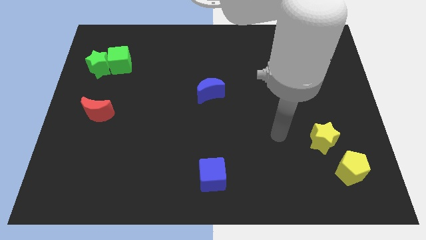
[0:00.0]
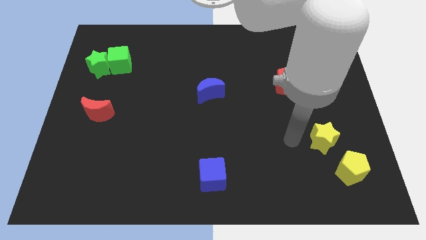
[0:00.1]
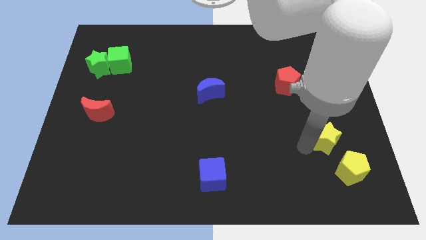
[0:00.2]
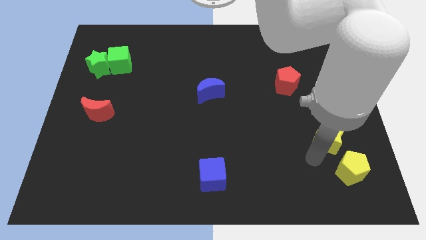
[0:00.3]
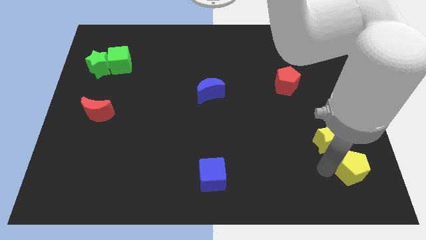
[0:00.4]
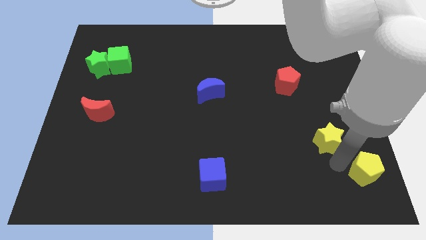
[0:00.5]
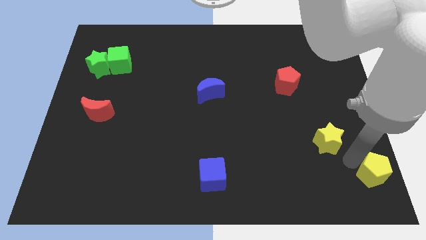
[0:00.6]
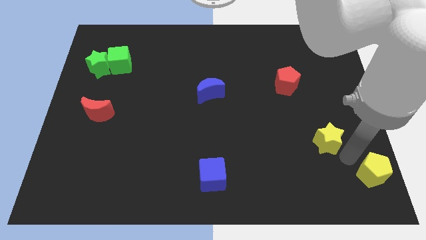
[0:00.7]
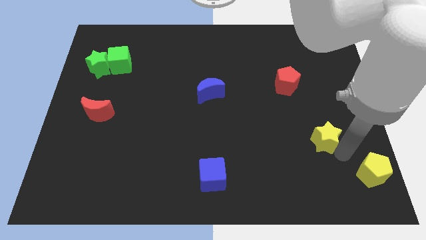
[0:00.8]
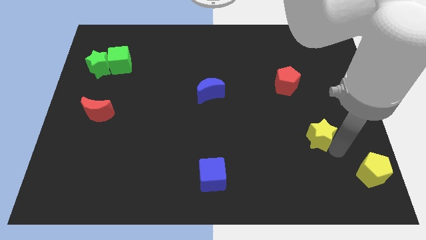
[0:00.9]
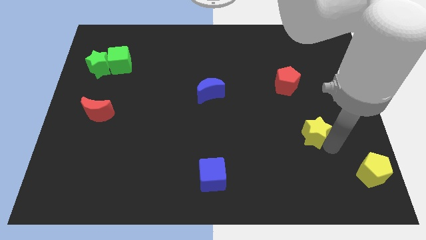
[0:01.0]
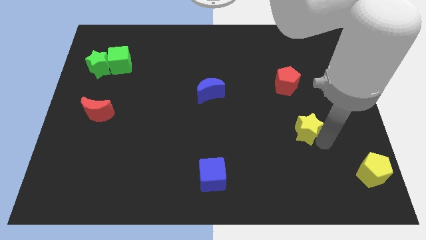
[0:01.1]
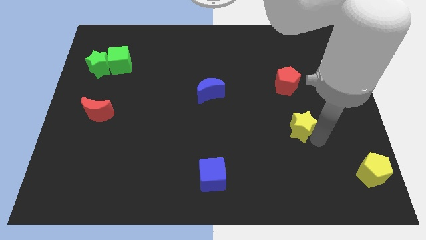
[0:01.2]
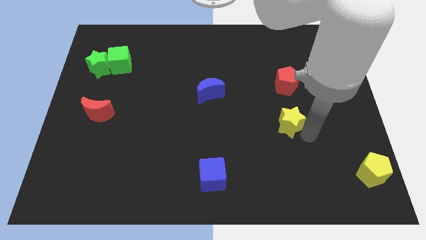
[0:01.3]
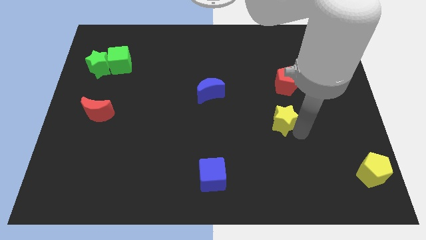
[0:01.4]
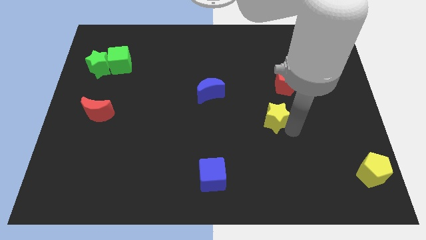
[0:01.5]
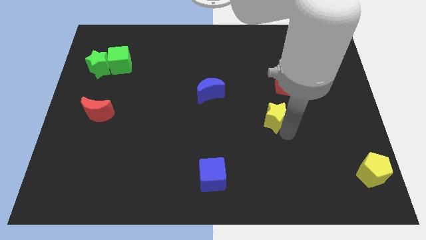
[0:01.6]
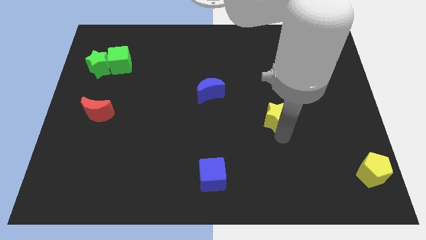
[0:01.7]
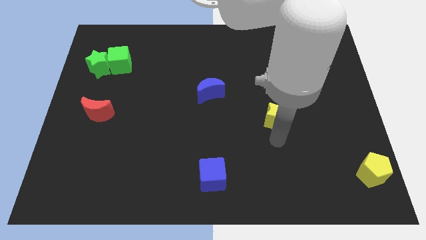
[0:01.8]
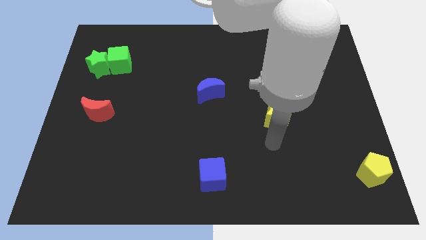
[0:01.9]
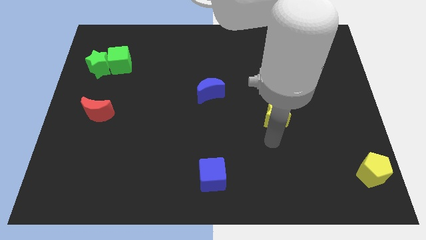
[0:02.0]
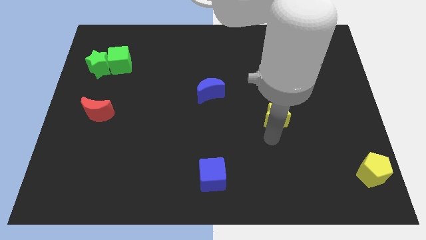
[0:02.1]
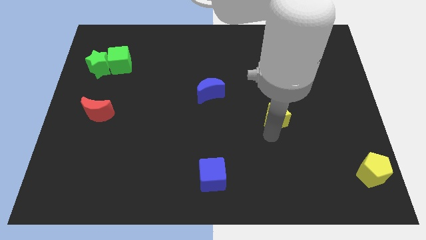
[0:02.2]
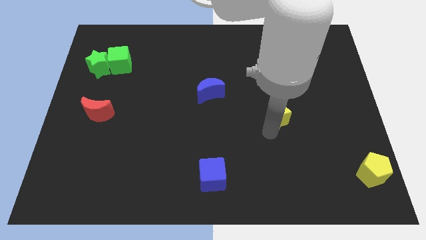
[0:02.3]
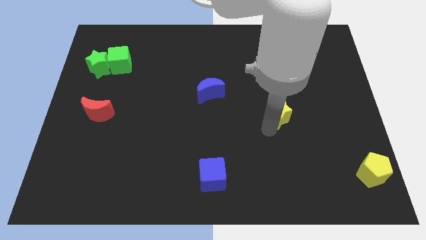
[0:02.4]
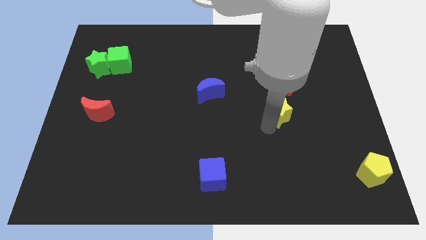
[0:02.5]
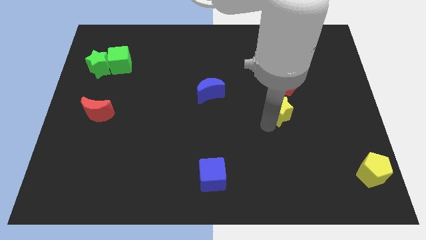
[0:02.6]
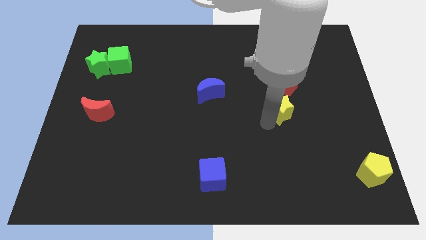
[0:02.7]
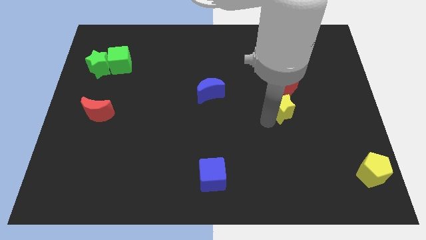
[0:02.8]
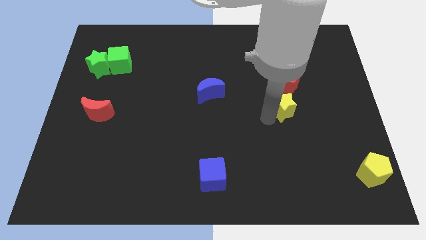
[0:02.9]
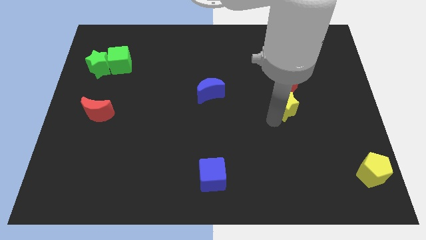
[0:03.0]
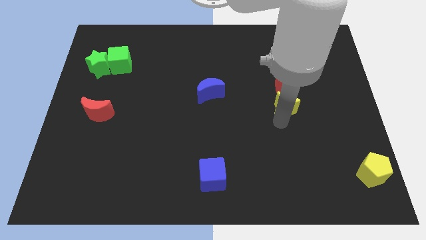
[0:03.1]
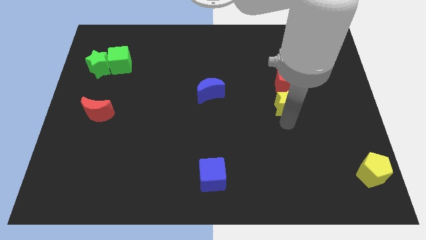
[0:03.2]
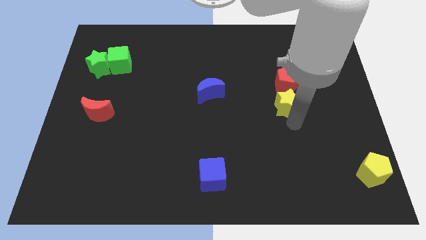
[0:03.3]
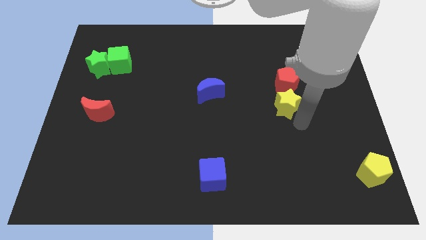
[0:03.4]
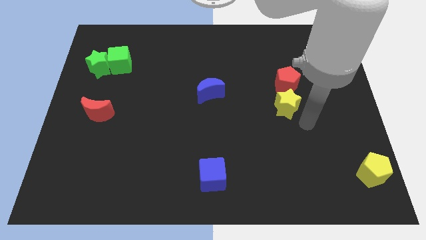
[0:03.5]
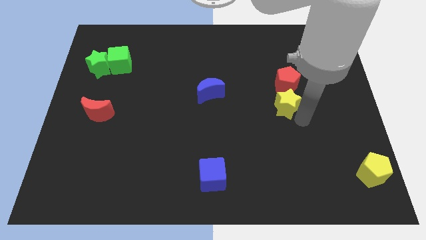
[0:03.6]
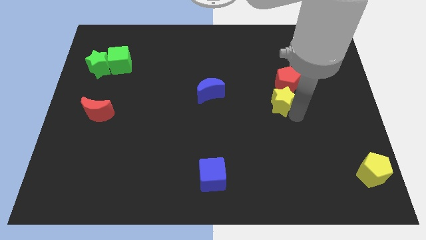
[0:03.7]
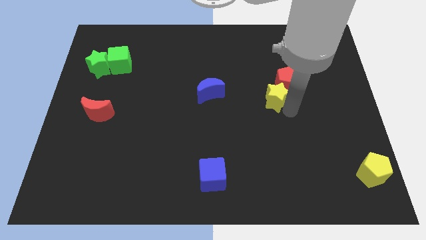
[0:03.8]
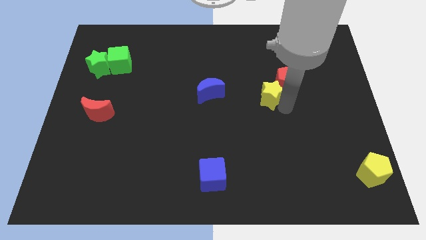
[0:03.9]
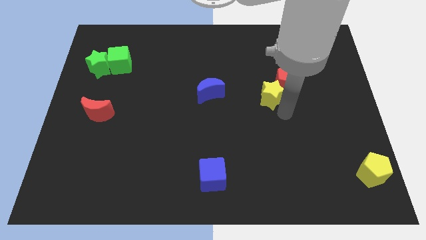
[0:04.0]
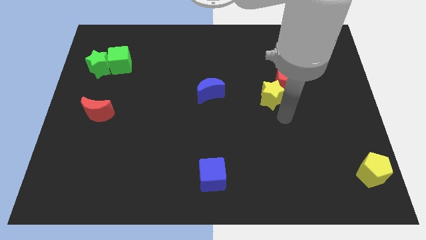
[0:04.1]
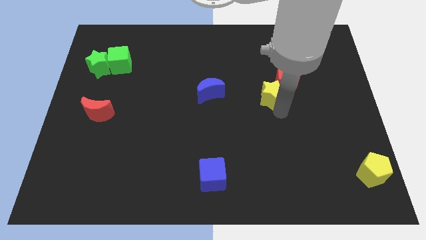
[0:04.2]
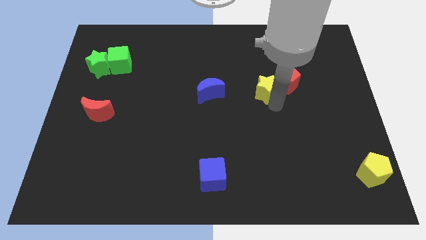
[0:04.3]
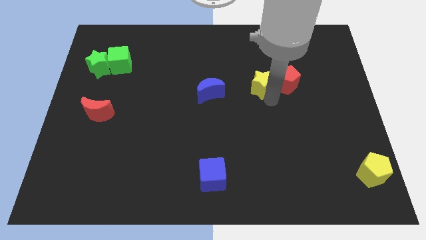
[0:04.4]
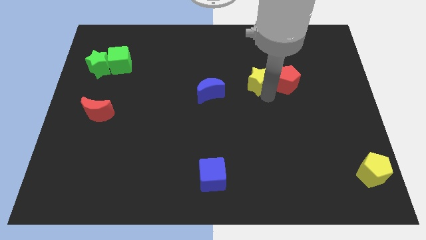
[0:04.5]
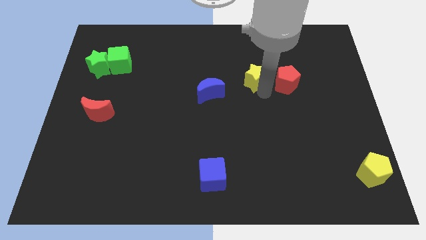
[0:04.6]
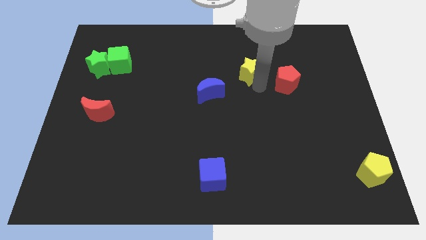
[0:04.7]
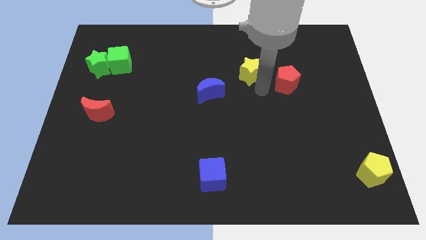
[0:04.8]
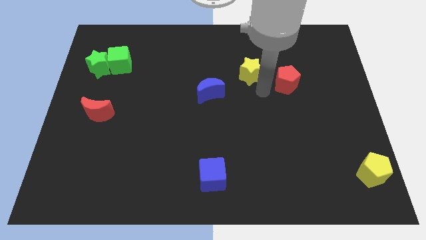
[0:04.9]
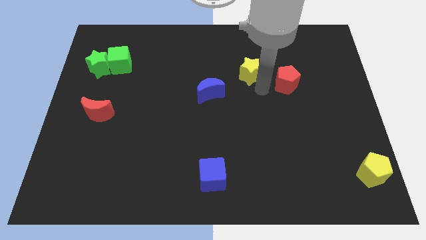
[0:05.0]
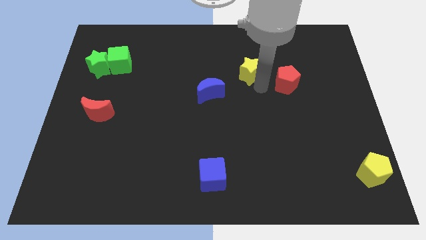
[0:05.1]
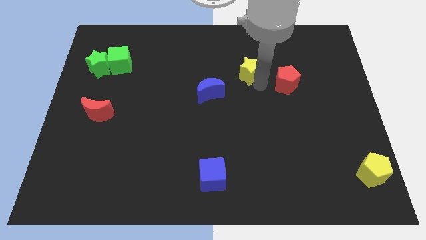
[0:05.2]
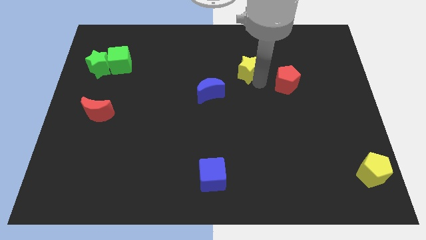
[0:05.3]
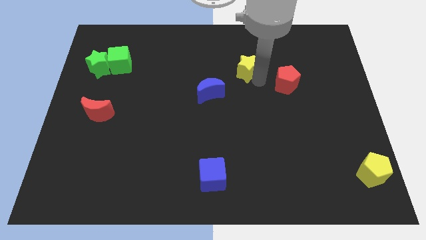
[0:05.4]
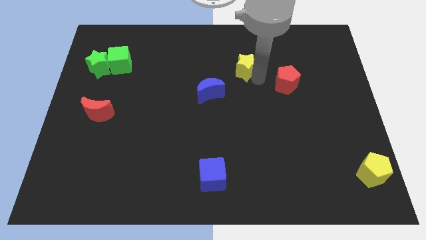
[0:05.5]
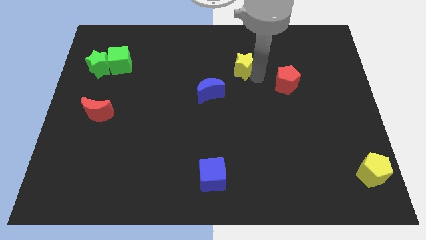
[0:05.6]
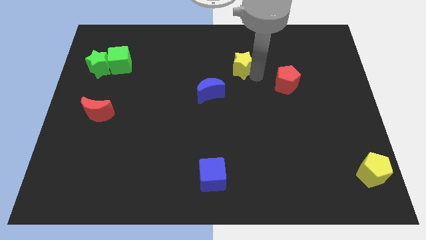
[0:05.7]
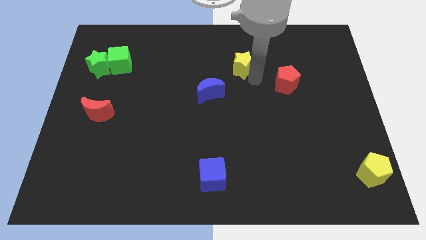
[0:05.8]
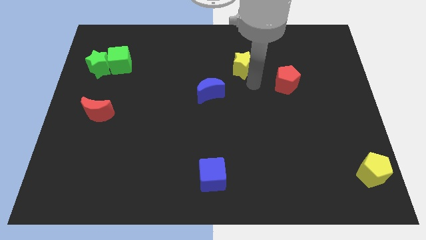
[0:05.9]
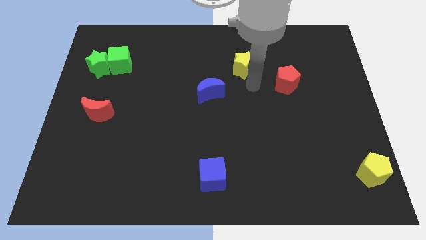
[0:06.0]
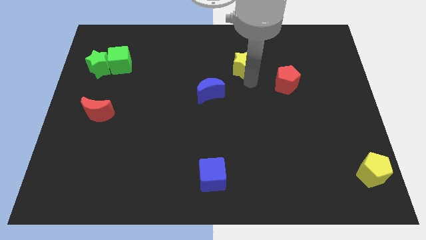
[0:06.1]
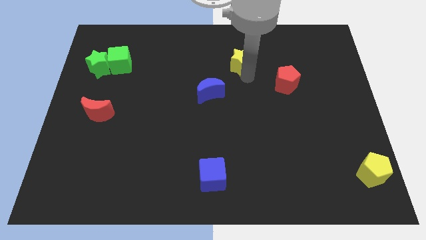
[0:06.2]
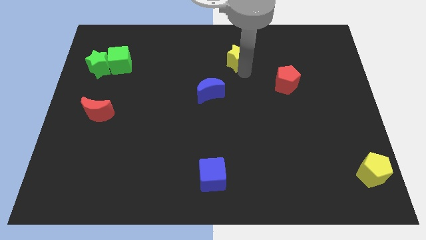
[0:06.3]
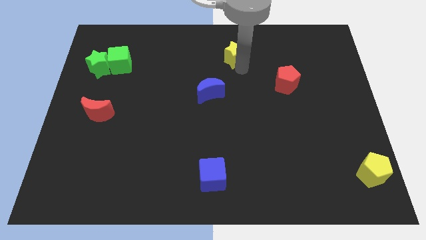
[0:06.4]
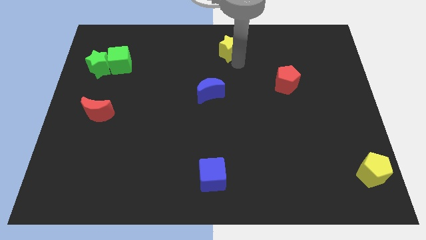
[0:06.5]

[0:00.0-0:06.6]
move the yellow star to the towards your base

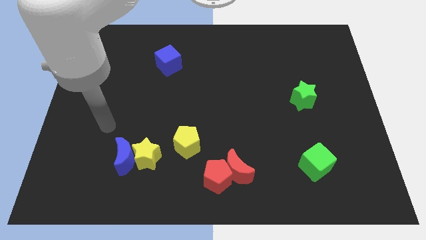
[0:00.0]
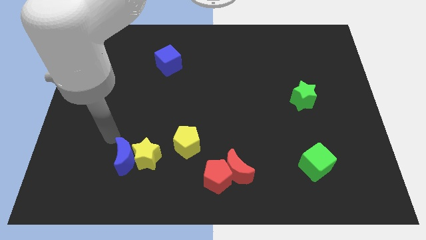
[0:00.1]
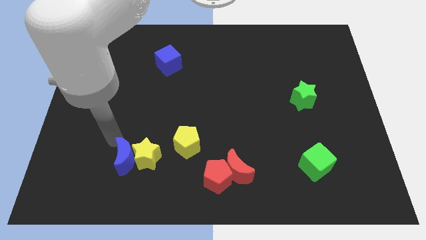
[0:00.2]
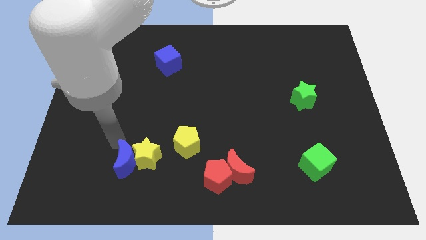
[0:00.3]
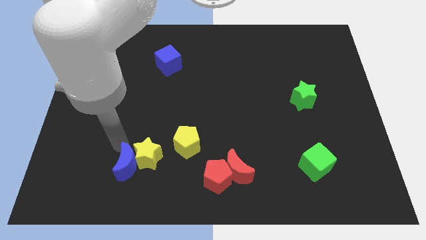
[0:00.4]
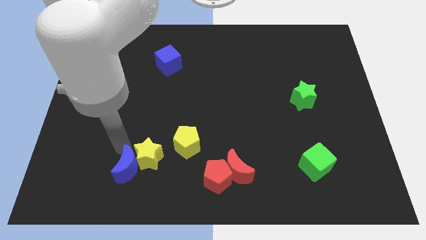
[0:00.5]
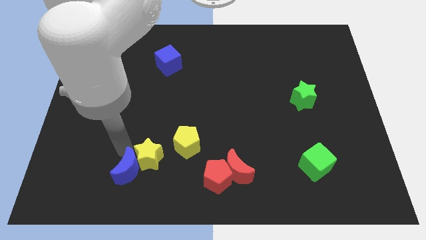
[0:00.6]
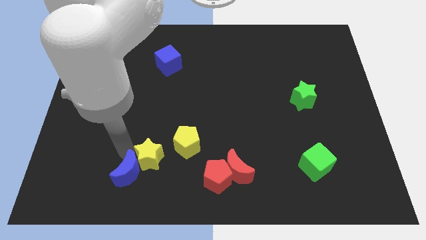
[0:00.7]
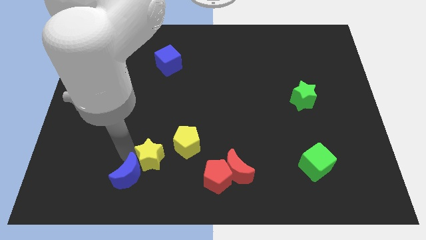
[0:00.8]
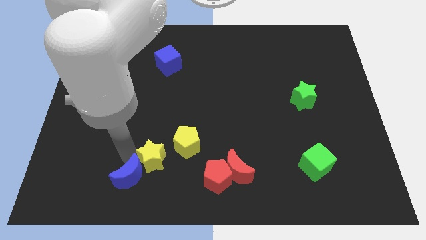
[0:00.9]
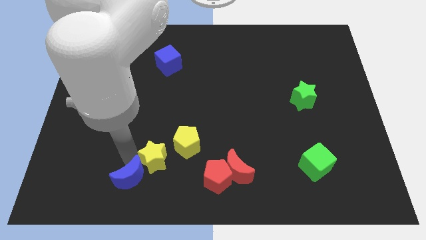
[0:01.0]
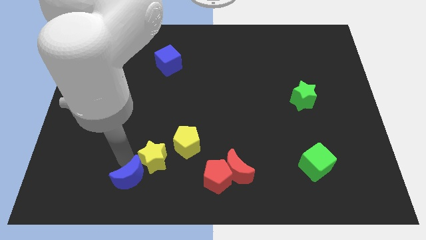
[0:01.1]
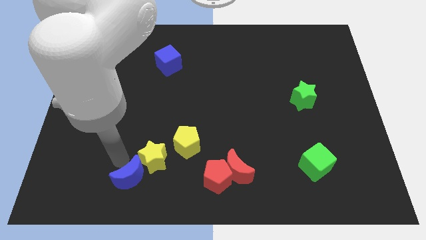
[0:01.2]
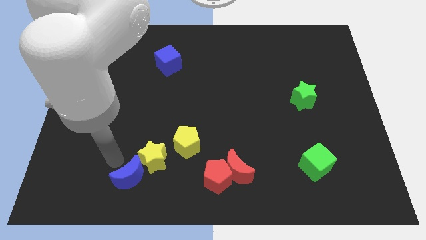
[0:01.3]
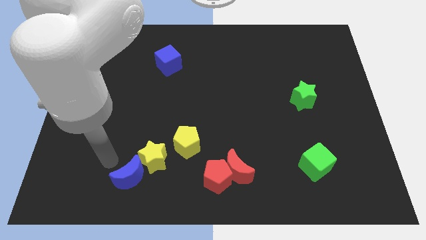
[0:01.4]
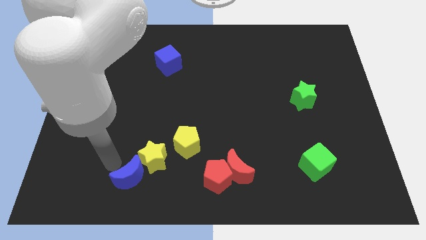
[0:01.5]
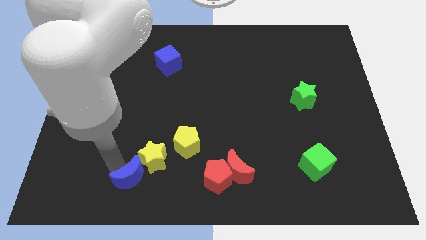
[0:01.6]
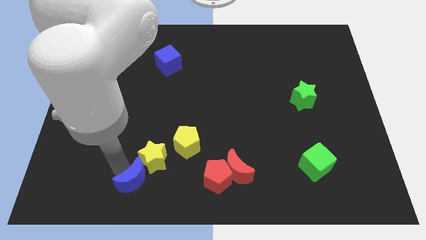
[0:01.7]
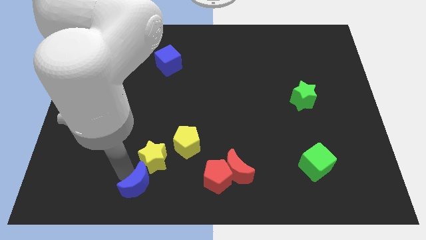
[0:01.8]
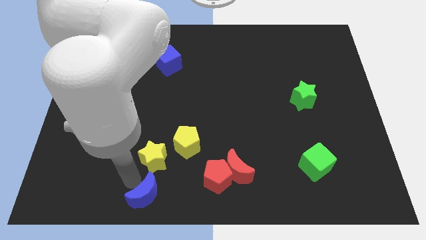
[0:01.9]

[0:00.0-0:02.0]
put the blue moon to the bottom side
